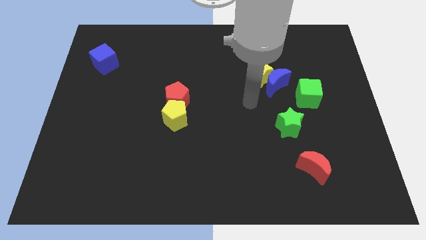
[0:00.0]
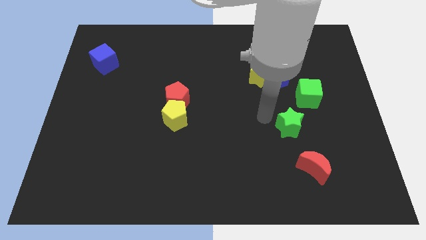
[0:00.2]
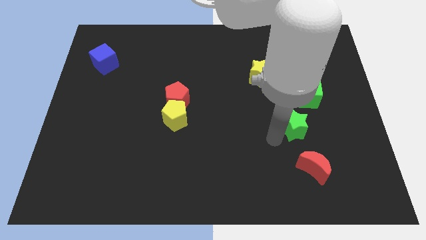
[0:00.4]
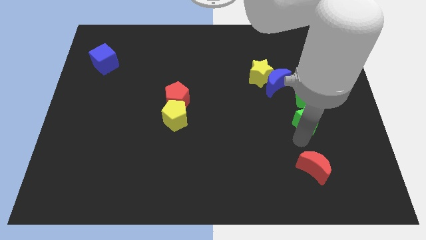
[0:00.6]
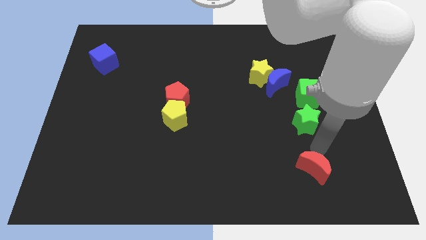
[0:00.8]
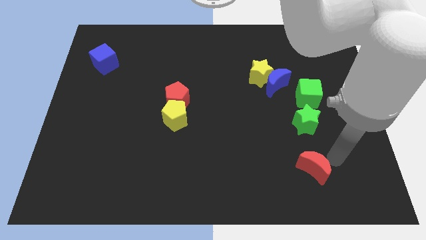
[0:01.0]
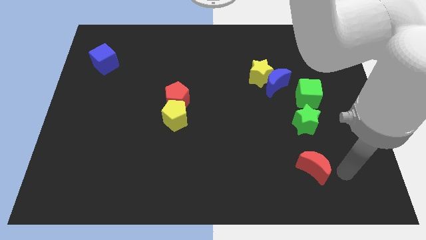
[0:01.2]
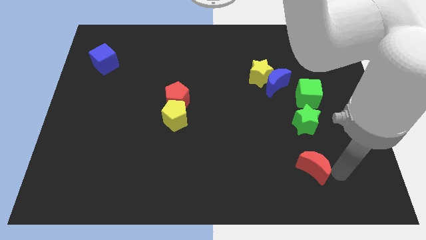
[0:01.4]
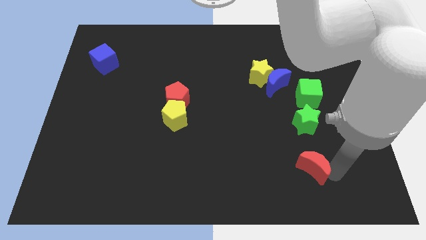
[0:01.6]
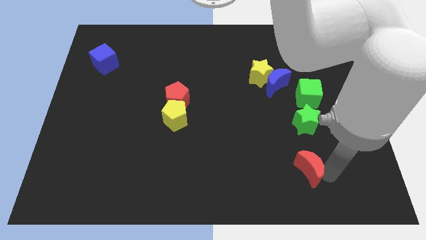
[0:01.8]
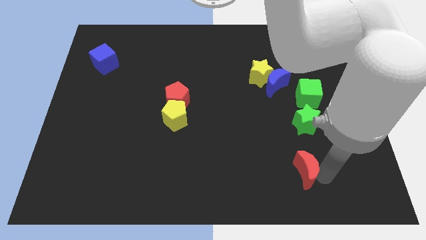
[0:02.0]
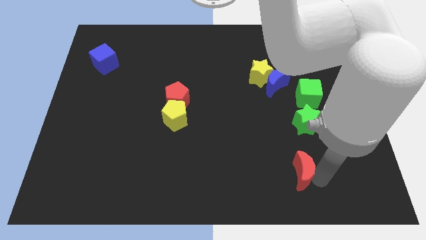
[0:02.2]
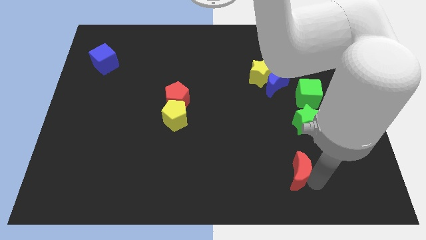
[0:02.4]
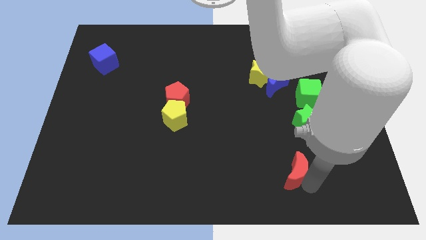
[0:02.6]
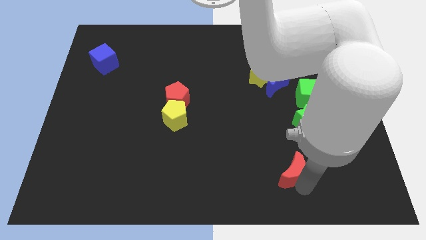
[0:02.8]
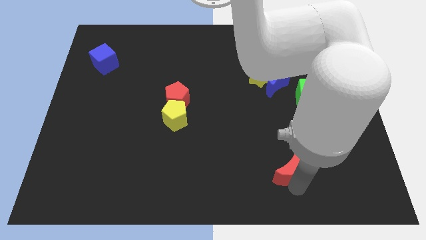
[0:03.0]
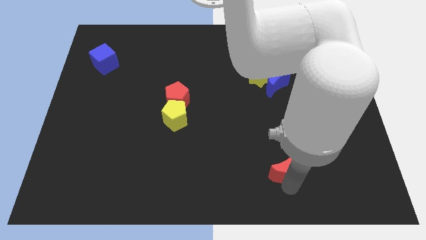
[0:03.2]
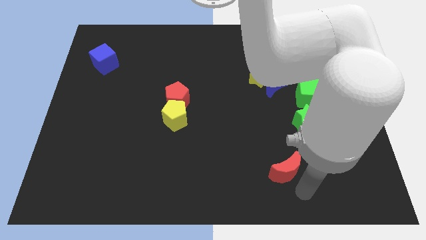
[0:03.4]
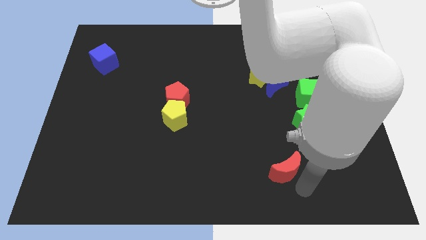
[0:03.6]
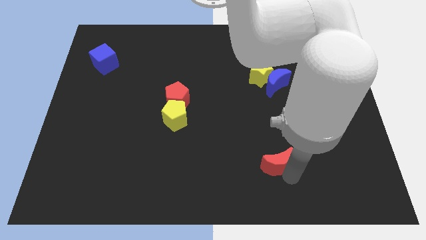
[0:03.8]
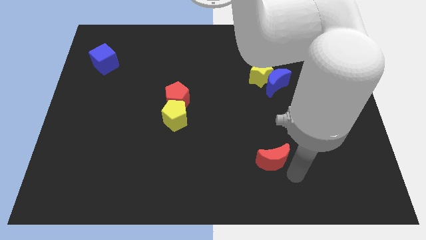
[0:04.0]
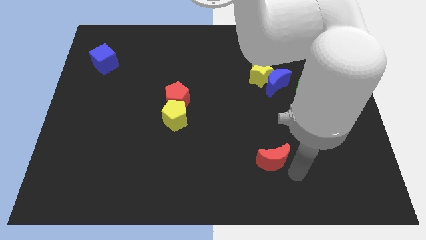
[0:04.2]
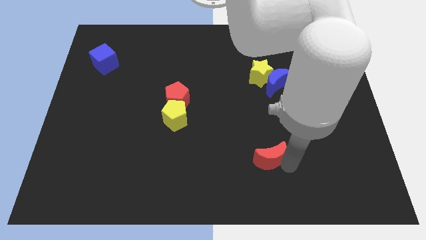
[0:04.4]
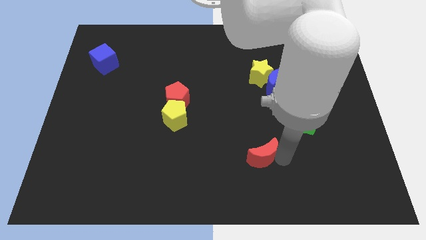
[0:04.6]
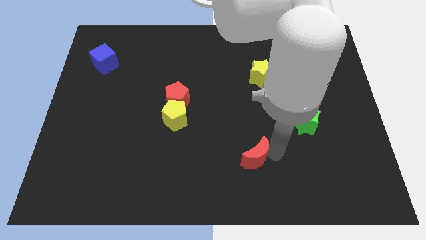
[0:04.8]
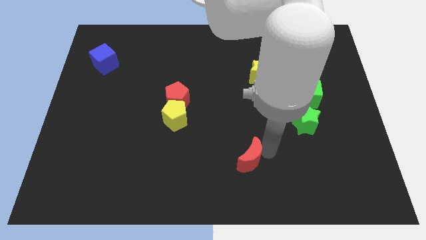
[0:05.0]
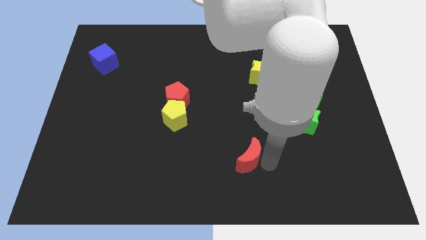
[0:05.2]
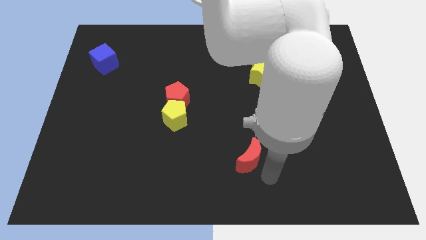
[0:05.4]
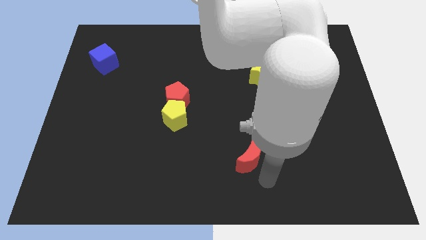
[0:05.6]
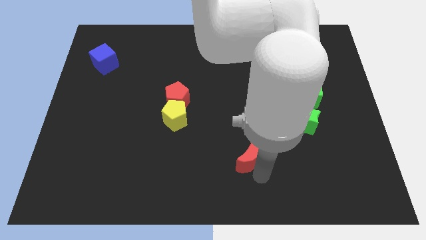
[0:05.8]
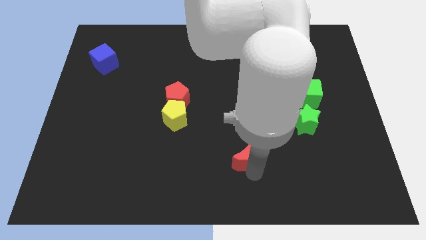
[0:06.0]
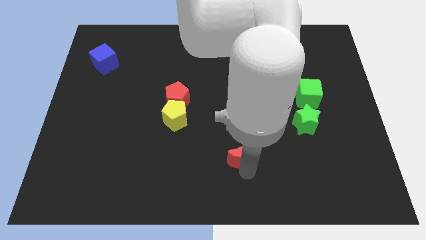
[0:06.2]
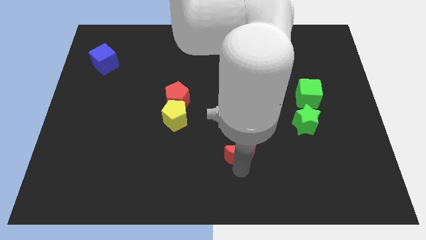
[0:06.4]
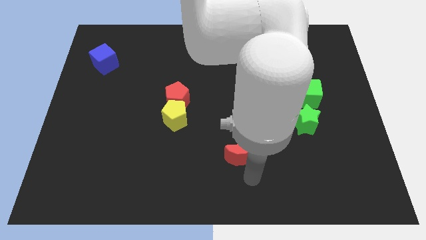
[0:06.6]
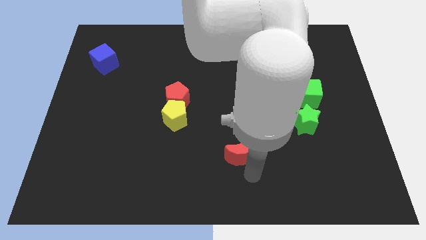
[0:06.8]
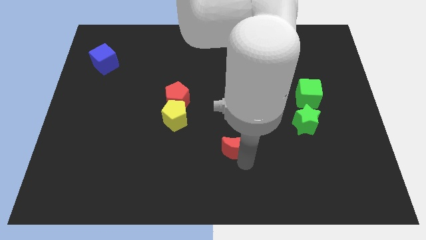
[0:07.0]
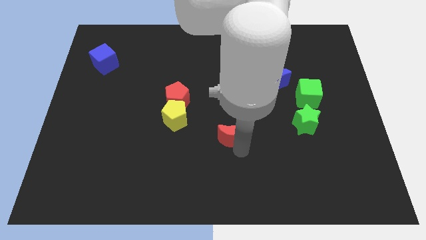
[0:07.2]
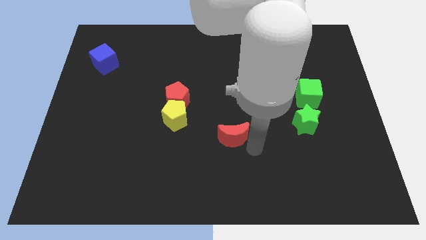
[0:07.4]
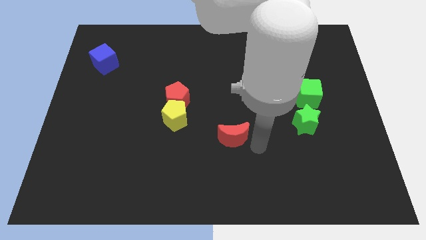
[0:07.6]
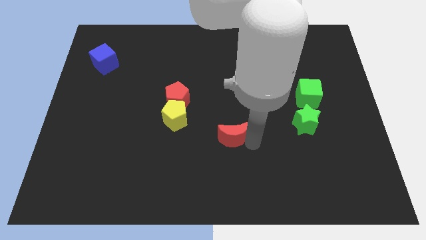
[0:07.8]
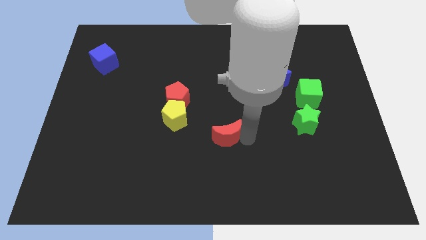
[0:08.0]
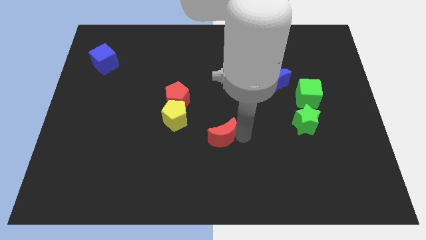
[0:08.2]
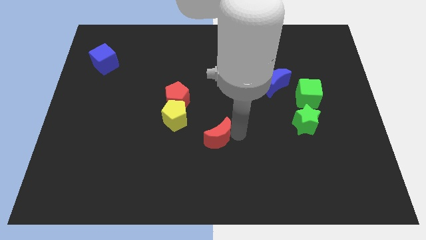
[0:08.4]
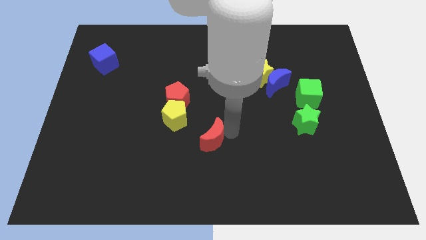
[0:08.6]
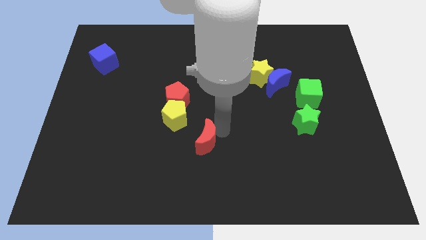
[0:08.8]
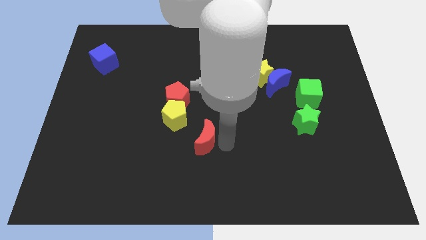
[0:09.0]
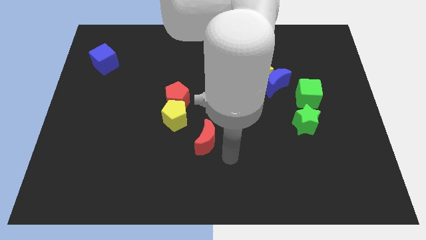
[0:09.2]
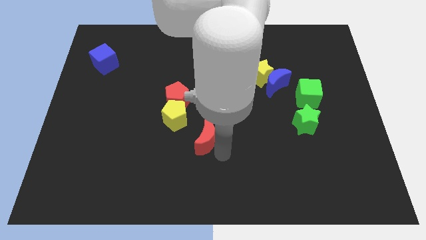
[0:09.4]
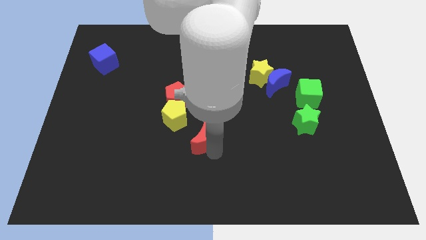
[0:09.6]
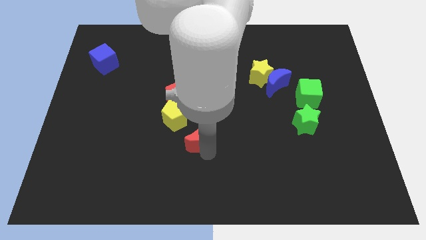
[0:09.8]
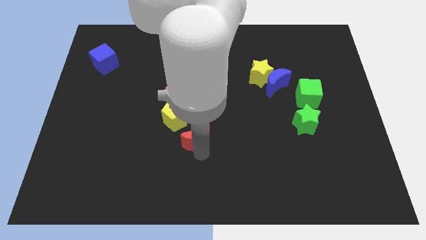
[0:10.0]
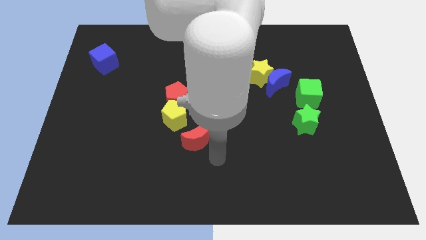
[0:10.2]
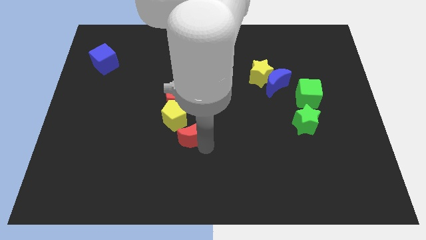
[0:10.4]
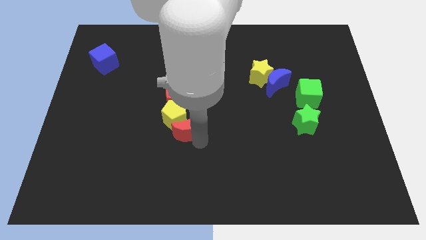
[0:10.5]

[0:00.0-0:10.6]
move the red moon towards the yellow pentagon

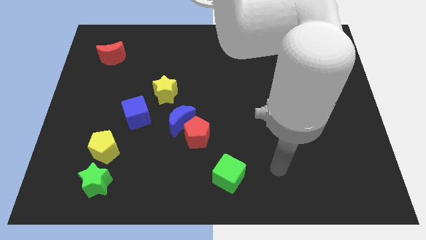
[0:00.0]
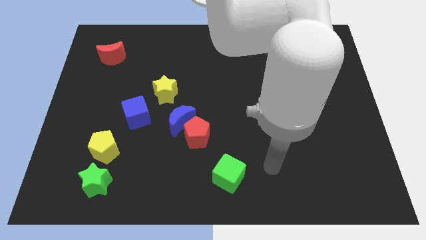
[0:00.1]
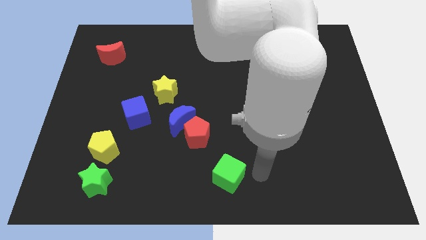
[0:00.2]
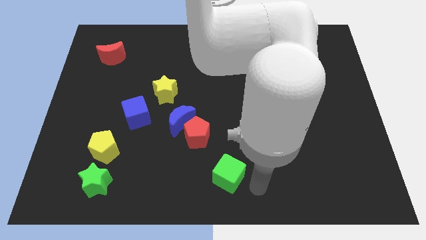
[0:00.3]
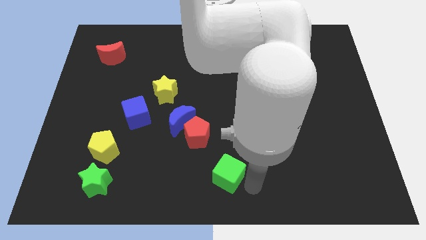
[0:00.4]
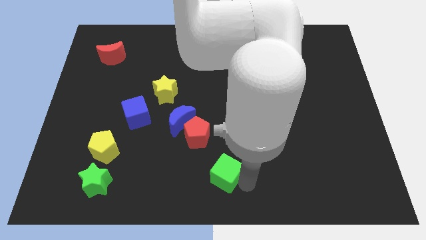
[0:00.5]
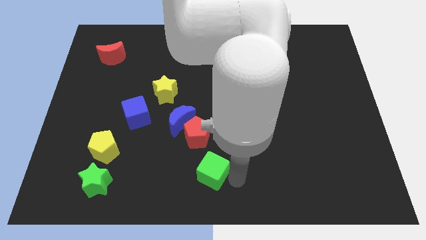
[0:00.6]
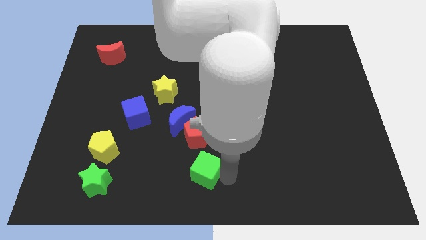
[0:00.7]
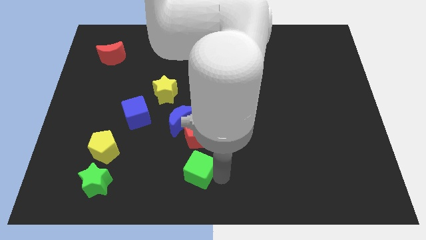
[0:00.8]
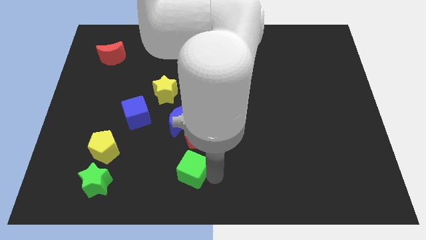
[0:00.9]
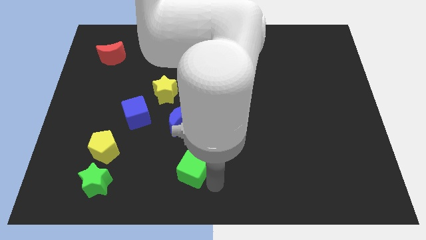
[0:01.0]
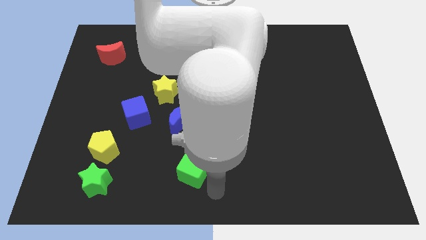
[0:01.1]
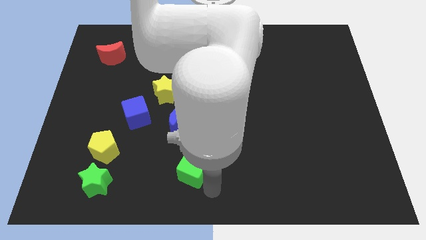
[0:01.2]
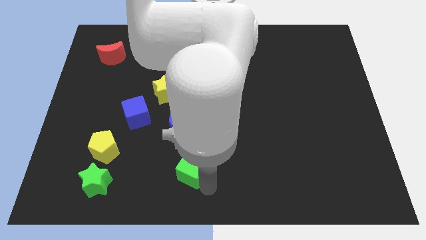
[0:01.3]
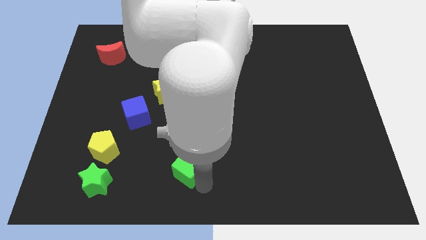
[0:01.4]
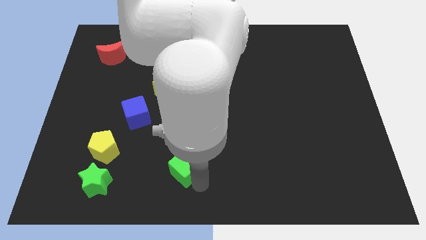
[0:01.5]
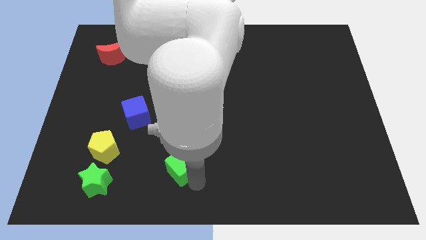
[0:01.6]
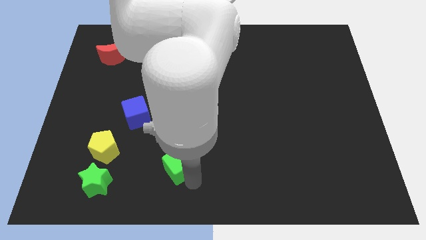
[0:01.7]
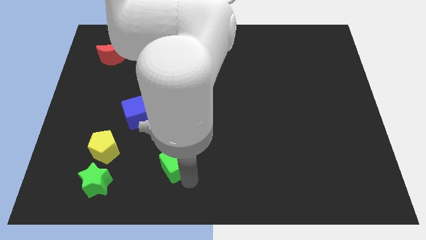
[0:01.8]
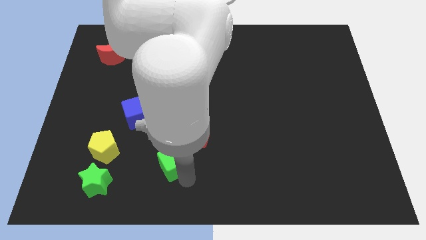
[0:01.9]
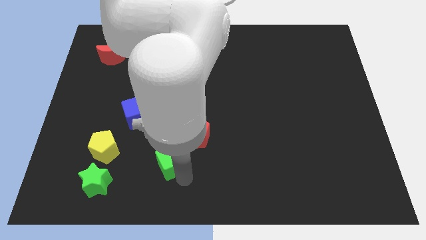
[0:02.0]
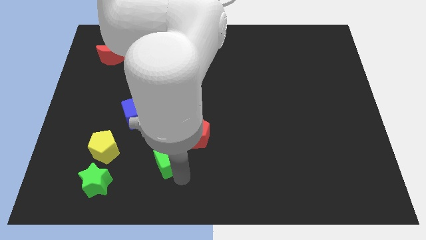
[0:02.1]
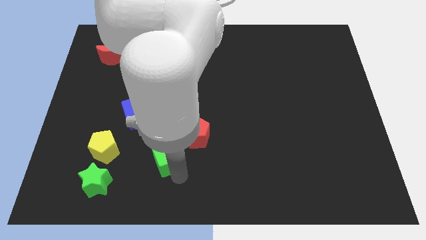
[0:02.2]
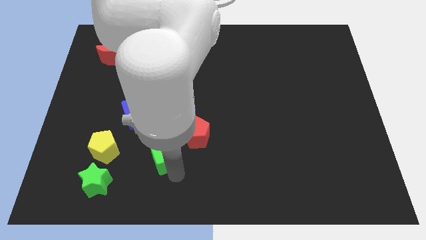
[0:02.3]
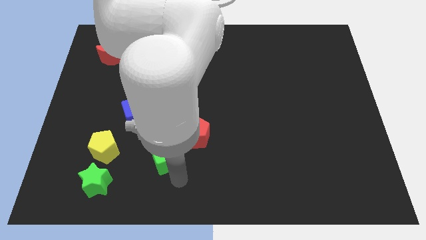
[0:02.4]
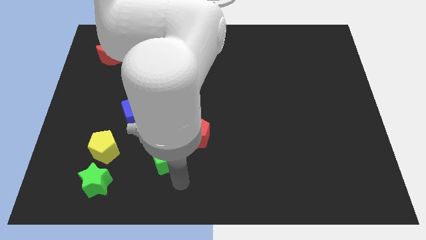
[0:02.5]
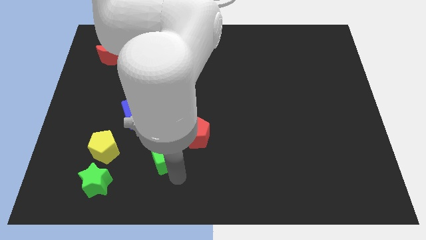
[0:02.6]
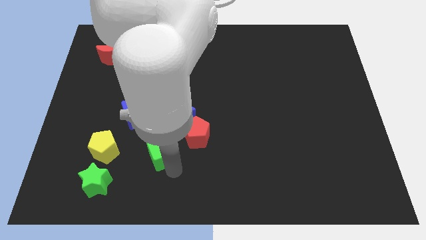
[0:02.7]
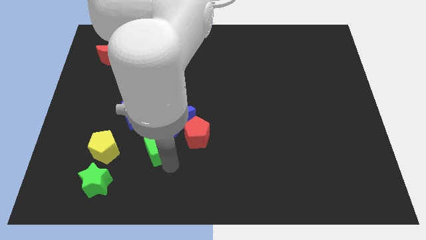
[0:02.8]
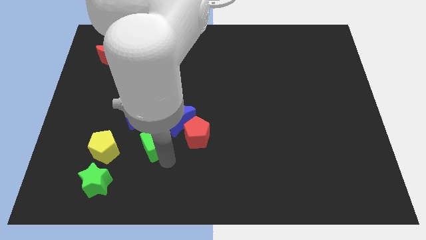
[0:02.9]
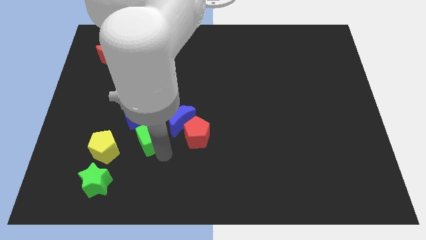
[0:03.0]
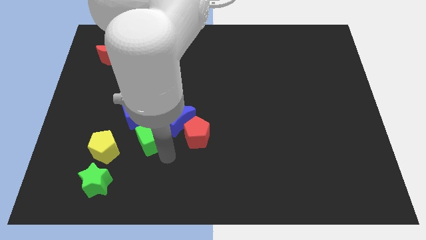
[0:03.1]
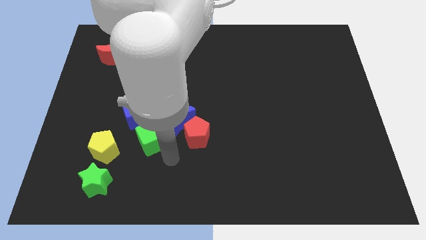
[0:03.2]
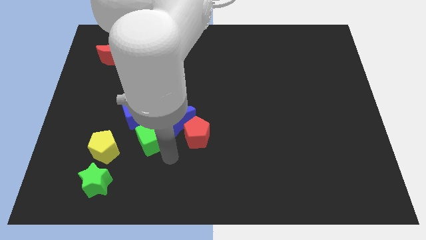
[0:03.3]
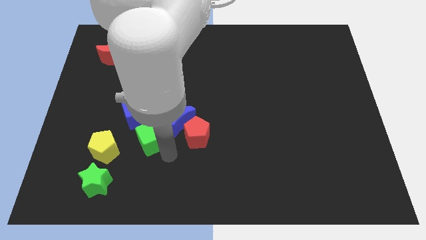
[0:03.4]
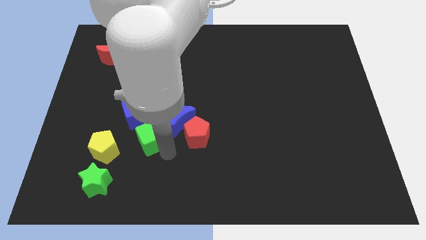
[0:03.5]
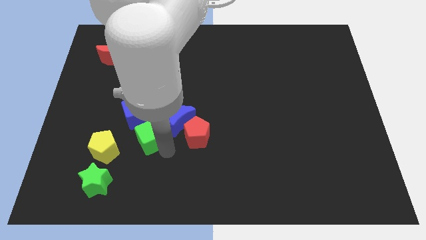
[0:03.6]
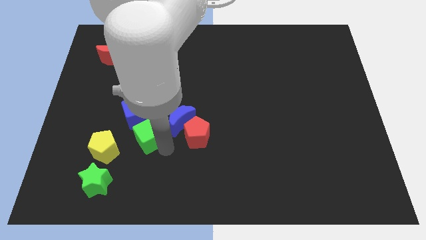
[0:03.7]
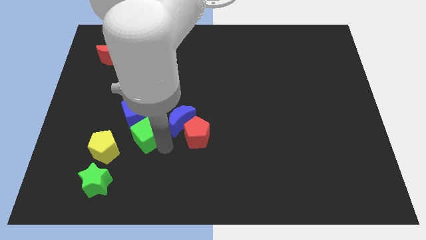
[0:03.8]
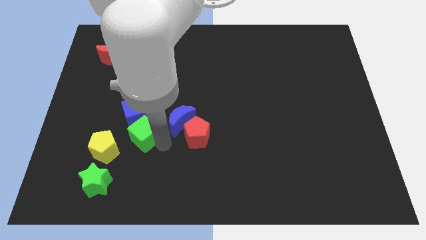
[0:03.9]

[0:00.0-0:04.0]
put the green cube to the blue cube
